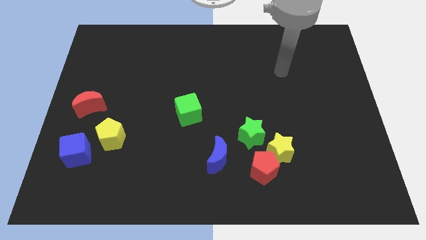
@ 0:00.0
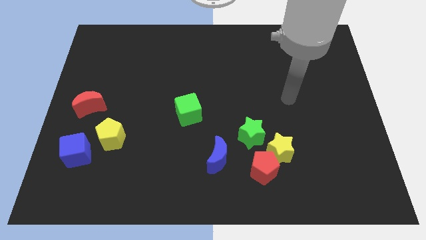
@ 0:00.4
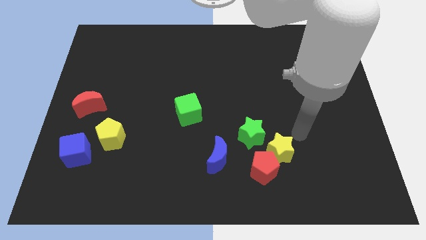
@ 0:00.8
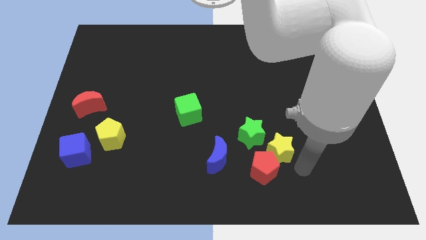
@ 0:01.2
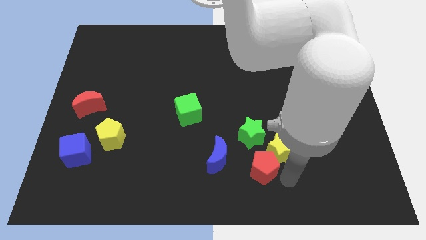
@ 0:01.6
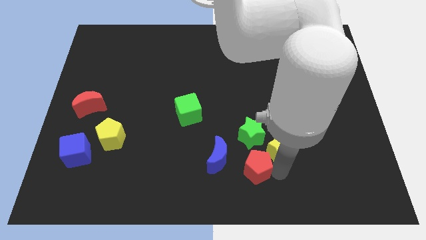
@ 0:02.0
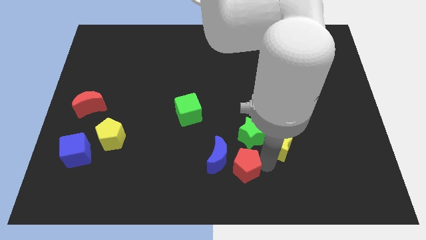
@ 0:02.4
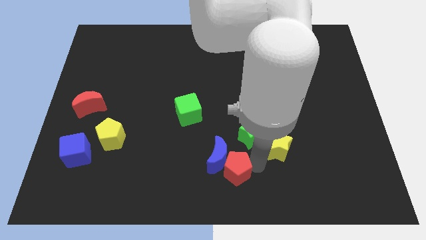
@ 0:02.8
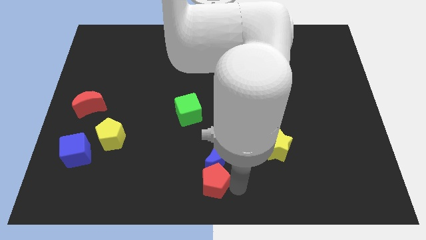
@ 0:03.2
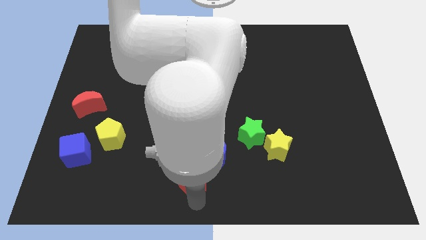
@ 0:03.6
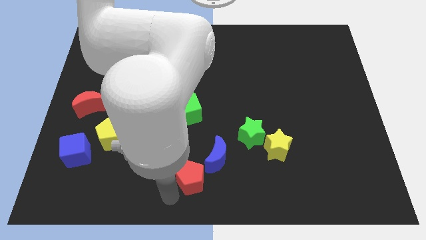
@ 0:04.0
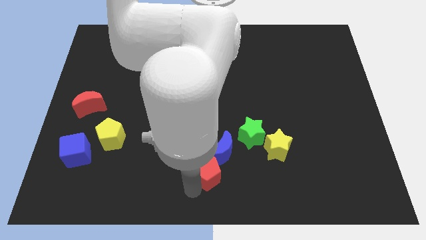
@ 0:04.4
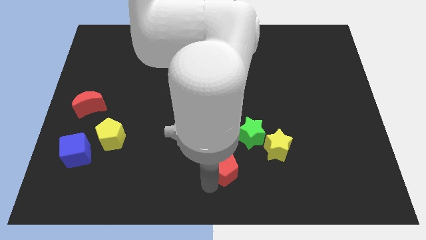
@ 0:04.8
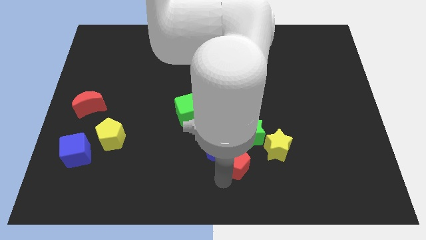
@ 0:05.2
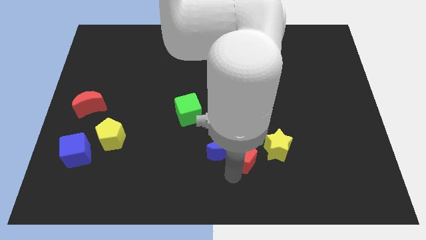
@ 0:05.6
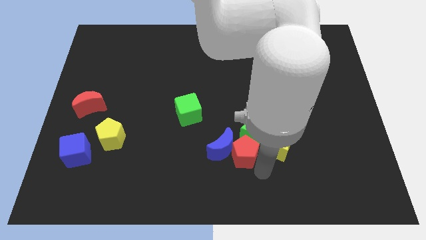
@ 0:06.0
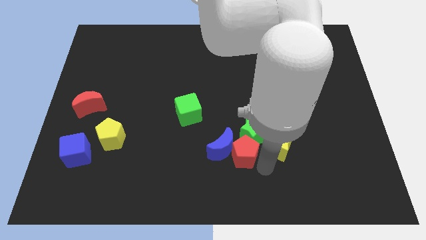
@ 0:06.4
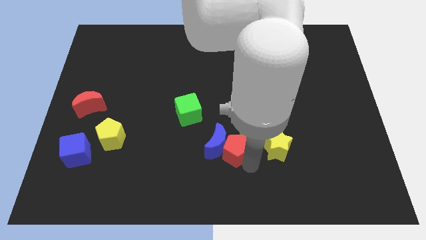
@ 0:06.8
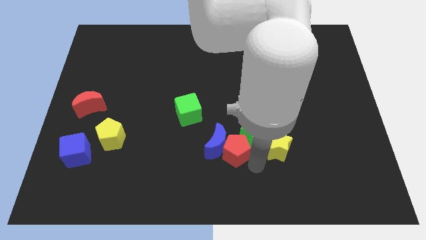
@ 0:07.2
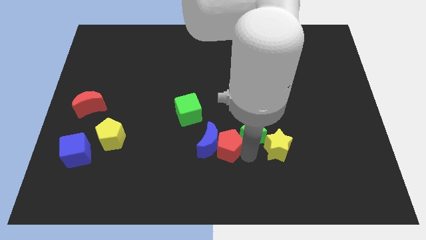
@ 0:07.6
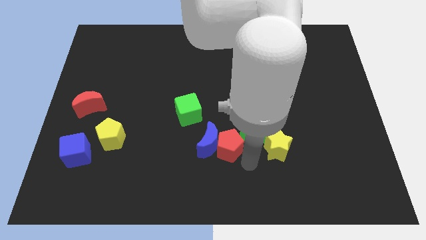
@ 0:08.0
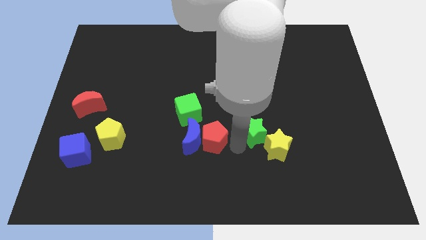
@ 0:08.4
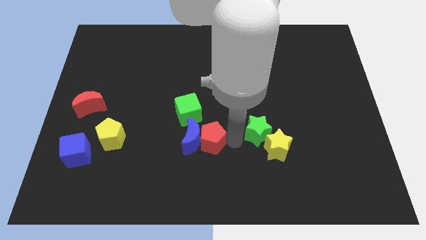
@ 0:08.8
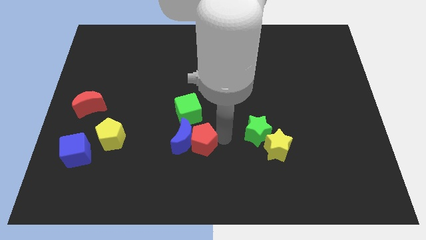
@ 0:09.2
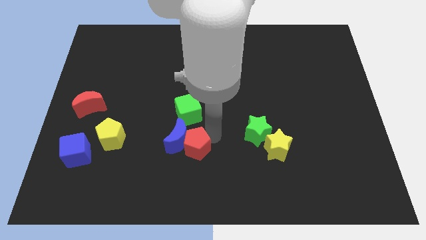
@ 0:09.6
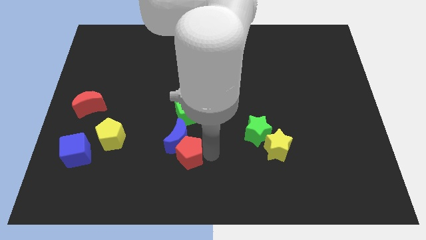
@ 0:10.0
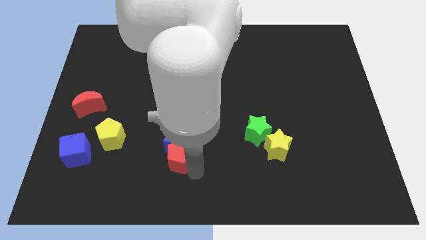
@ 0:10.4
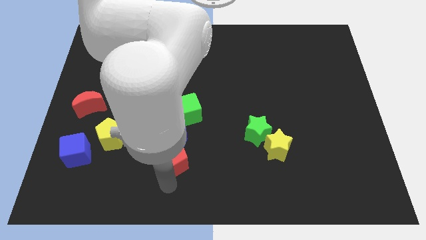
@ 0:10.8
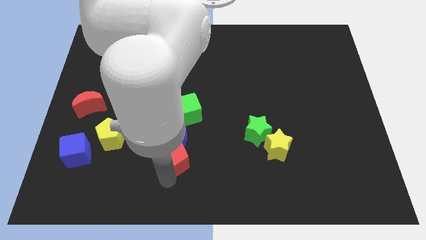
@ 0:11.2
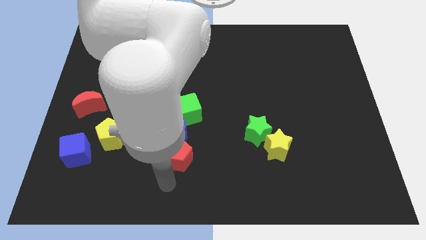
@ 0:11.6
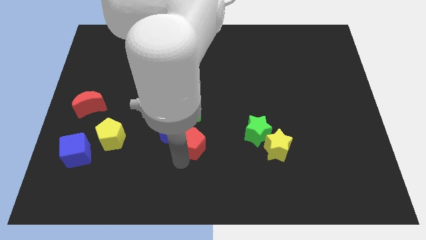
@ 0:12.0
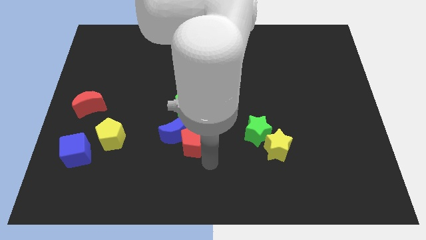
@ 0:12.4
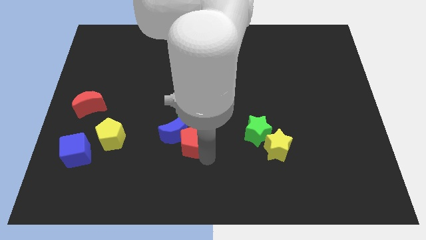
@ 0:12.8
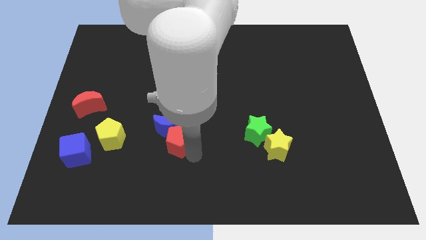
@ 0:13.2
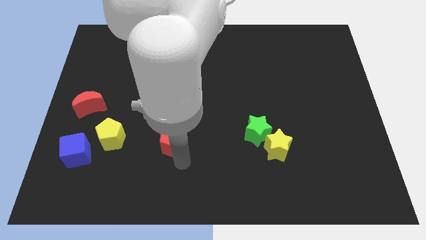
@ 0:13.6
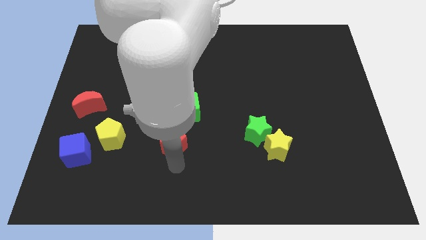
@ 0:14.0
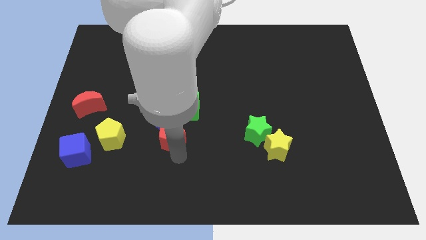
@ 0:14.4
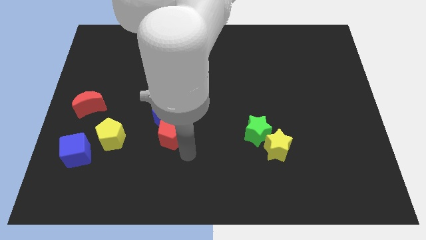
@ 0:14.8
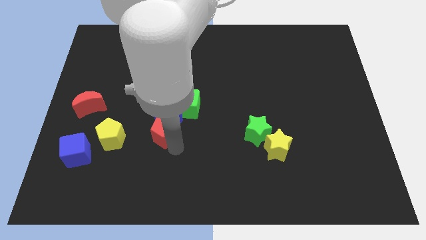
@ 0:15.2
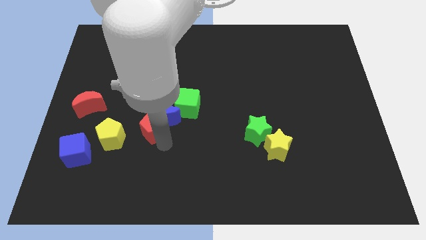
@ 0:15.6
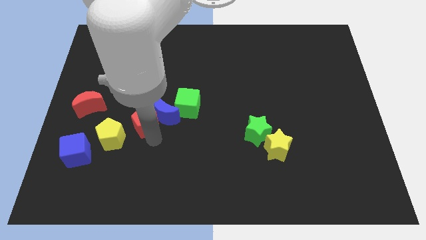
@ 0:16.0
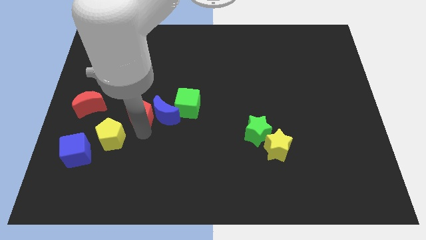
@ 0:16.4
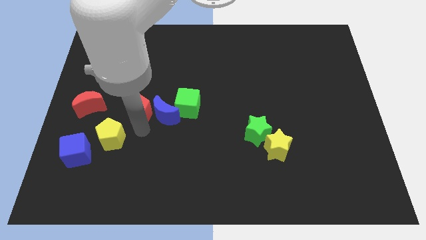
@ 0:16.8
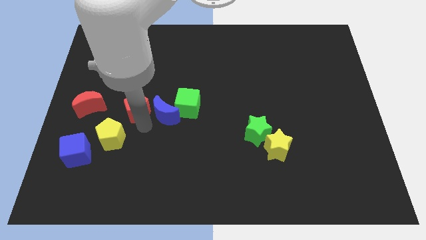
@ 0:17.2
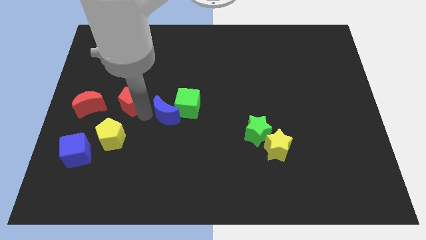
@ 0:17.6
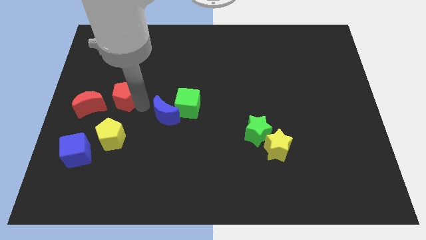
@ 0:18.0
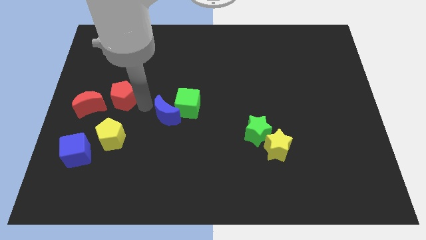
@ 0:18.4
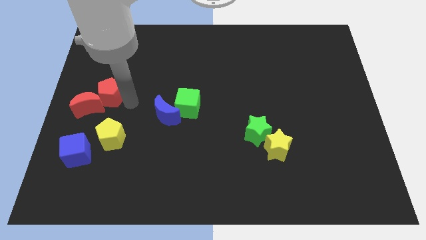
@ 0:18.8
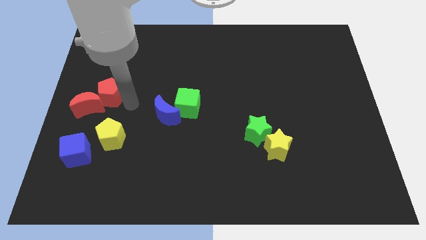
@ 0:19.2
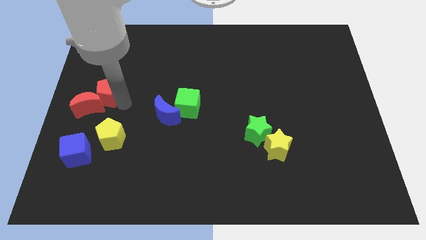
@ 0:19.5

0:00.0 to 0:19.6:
push the red pentagon to the center left
